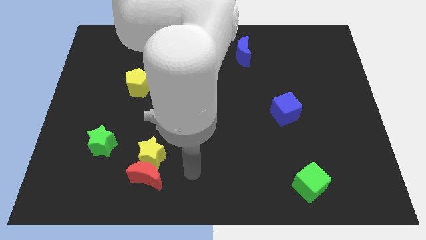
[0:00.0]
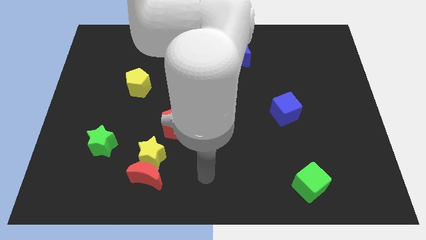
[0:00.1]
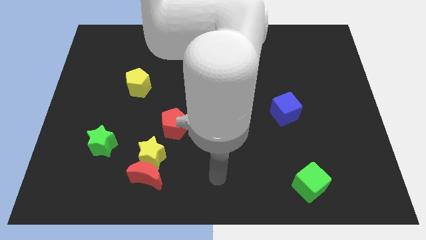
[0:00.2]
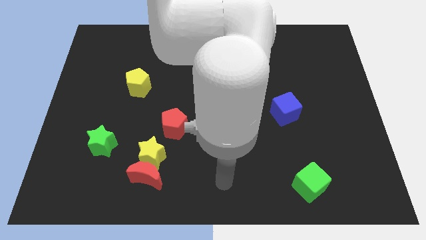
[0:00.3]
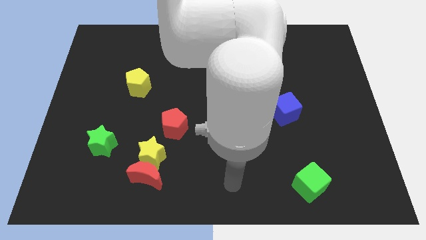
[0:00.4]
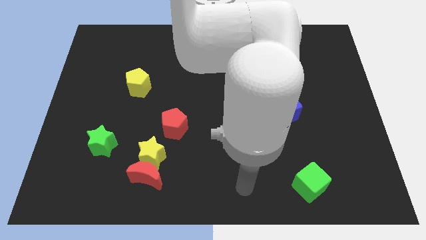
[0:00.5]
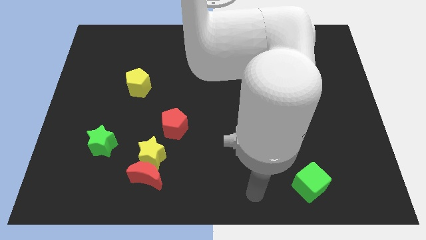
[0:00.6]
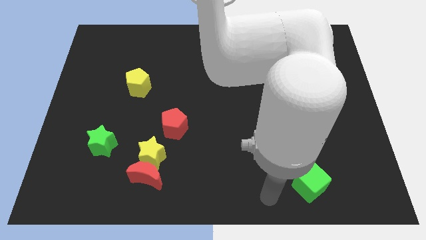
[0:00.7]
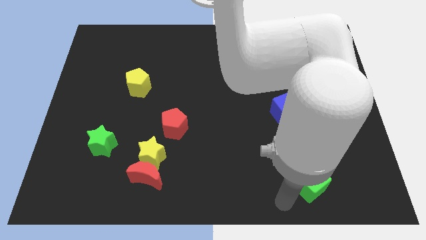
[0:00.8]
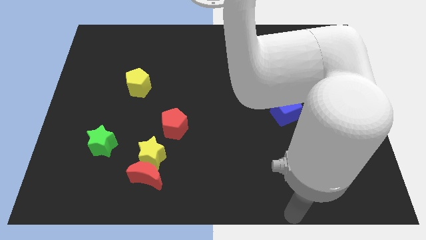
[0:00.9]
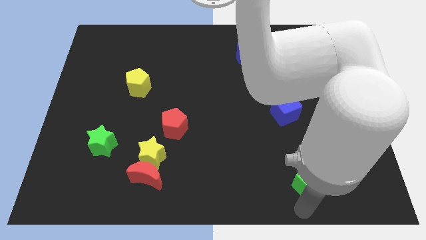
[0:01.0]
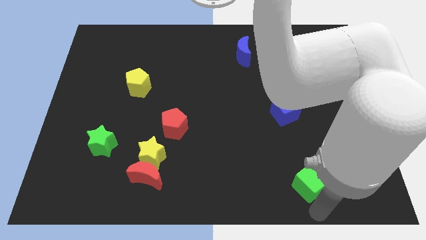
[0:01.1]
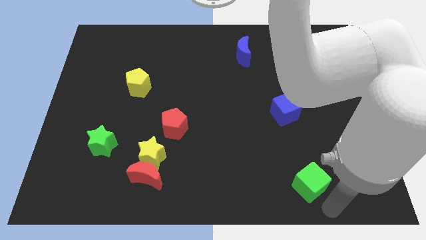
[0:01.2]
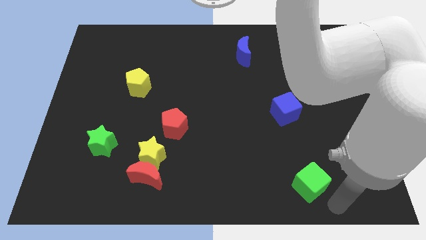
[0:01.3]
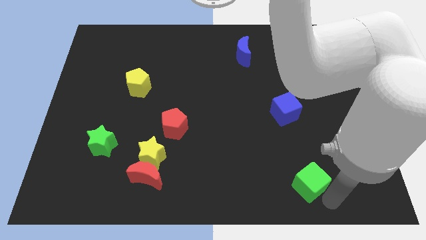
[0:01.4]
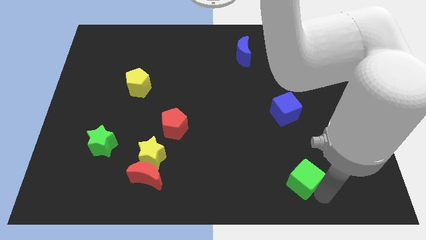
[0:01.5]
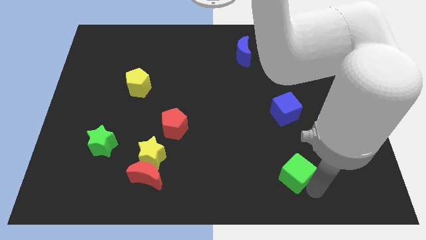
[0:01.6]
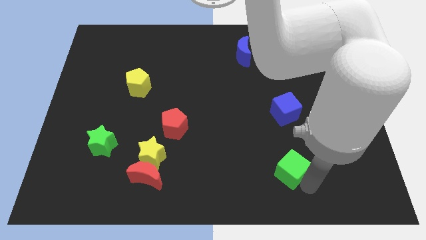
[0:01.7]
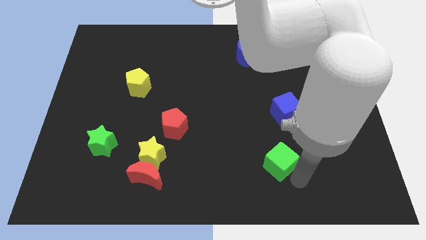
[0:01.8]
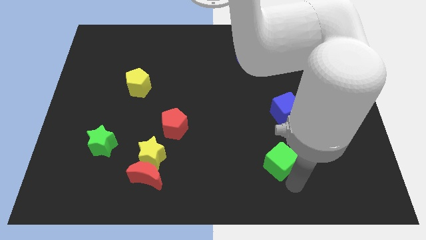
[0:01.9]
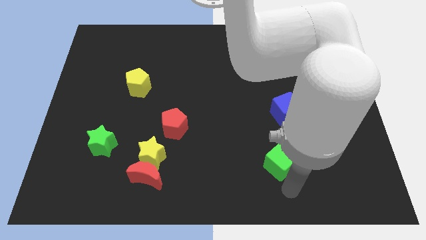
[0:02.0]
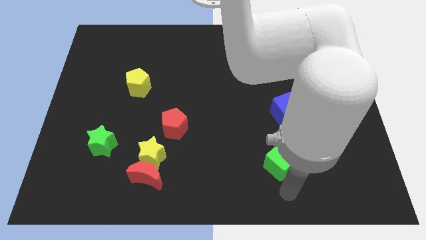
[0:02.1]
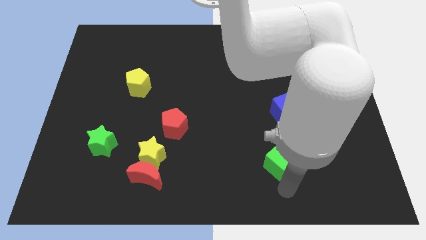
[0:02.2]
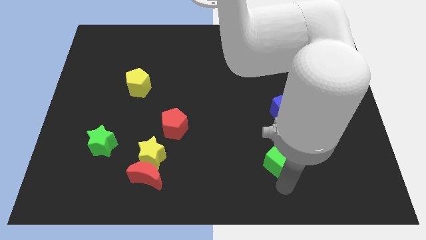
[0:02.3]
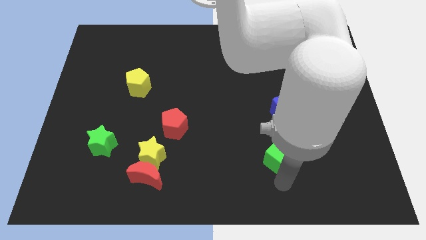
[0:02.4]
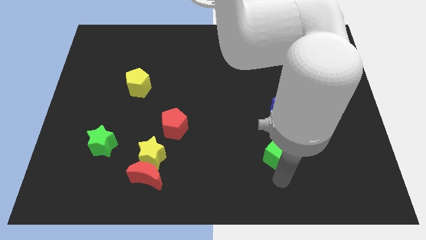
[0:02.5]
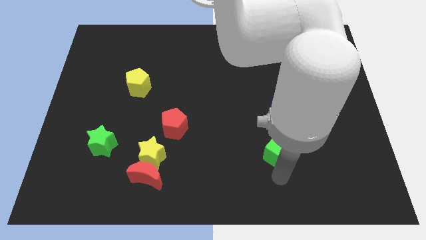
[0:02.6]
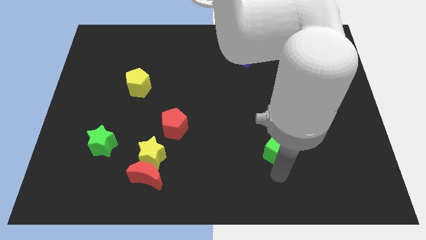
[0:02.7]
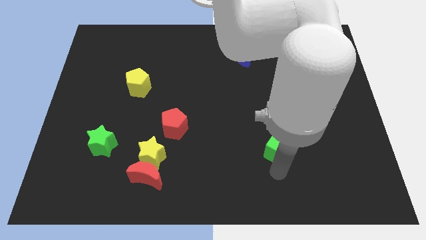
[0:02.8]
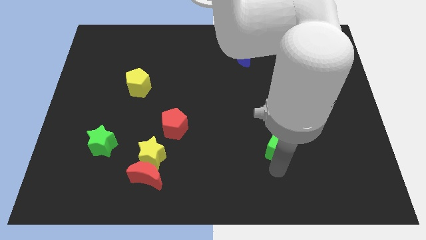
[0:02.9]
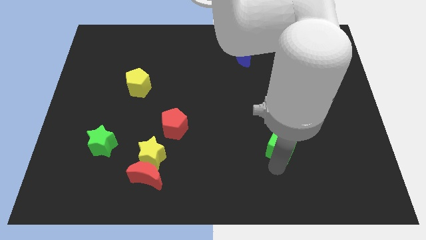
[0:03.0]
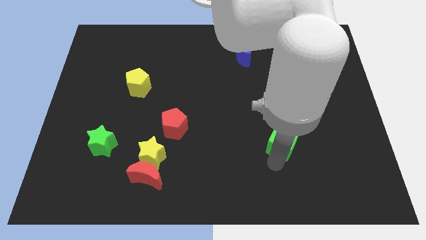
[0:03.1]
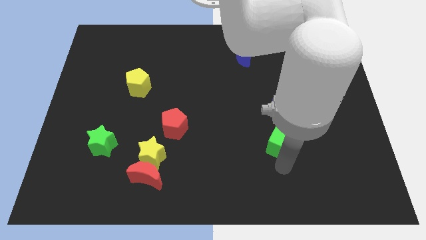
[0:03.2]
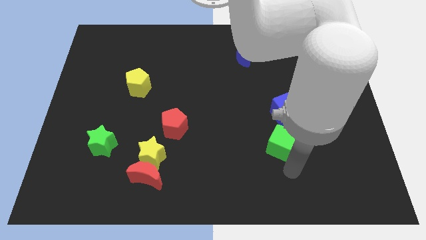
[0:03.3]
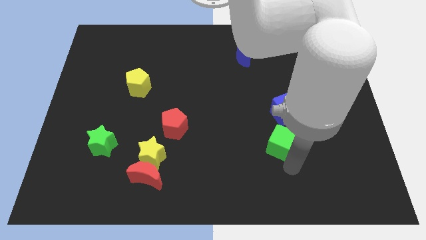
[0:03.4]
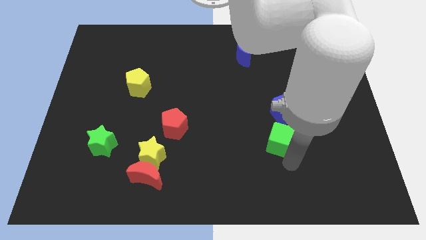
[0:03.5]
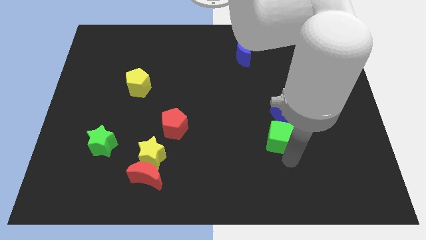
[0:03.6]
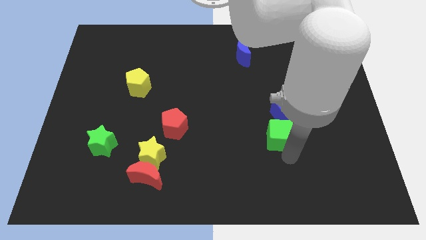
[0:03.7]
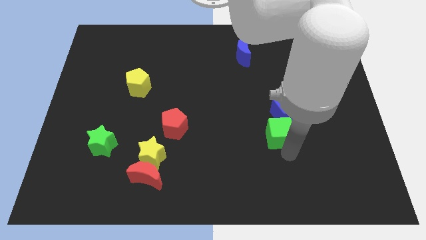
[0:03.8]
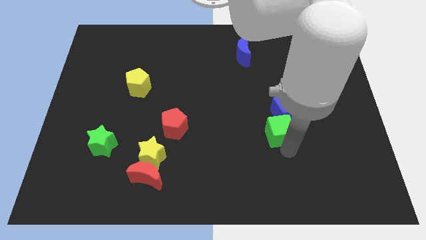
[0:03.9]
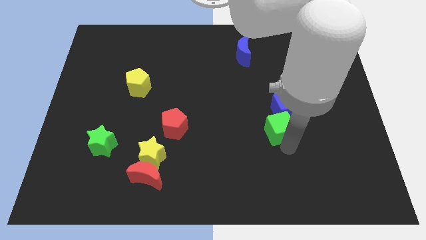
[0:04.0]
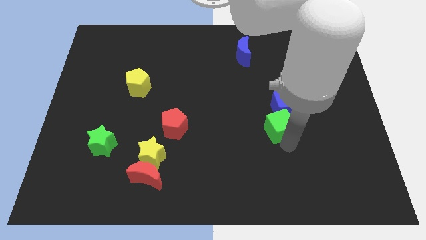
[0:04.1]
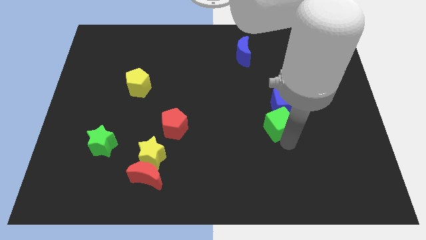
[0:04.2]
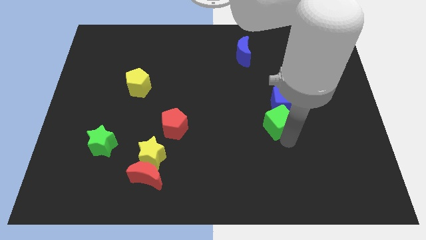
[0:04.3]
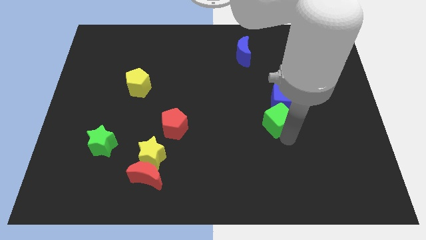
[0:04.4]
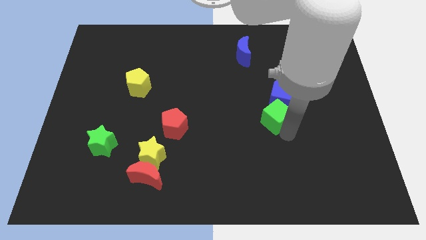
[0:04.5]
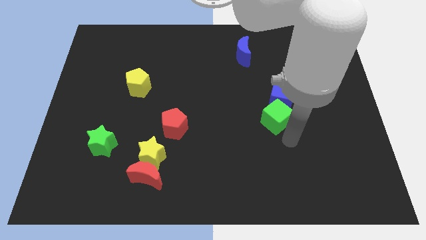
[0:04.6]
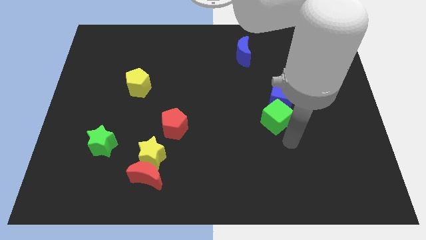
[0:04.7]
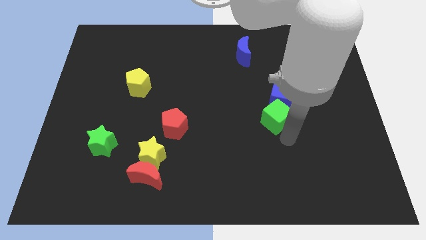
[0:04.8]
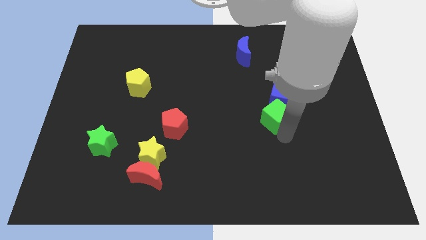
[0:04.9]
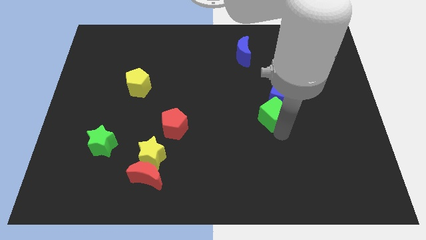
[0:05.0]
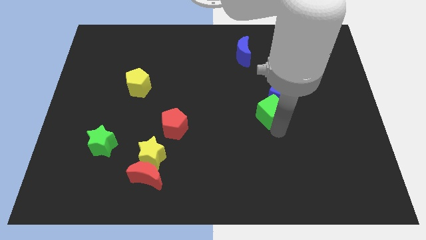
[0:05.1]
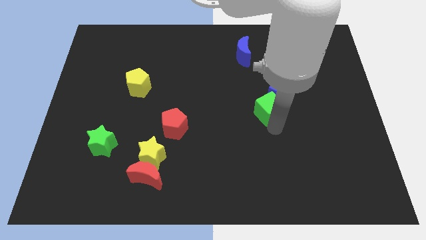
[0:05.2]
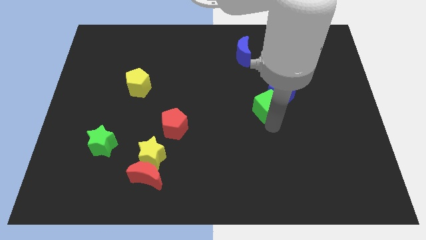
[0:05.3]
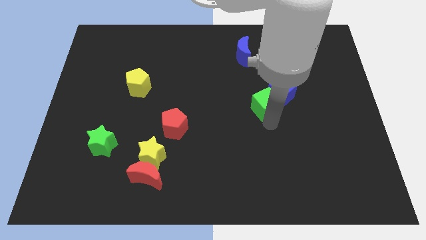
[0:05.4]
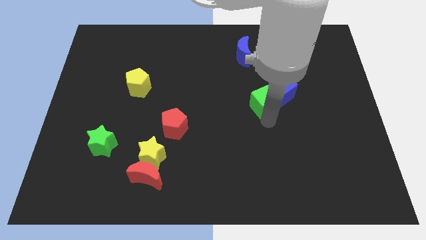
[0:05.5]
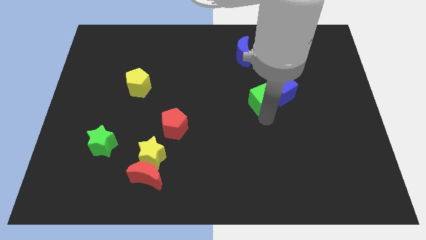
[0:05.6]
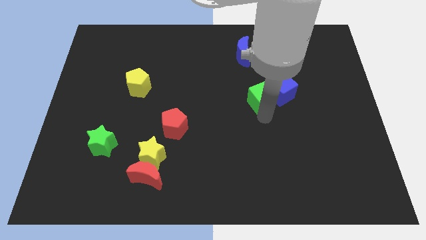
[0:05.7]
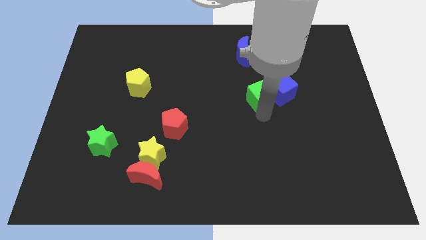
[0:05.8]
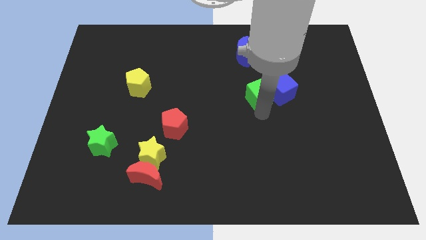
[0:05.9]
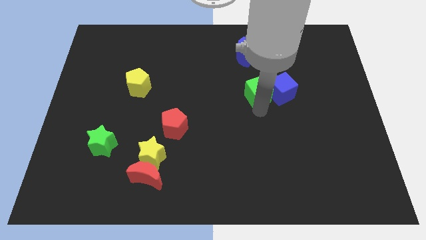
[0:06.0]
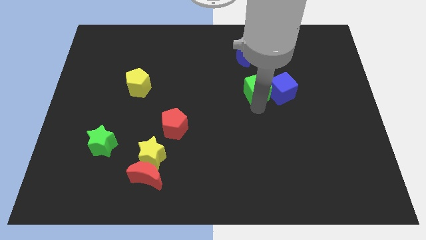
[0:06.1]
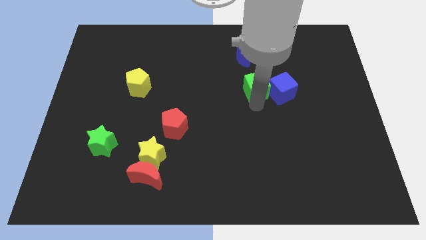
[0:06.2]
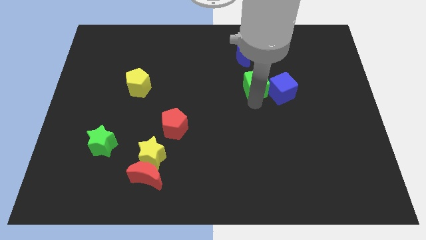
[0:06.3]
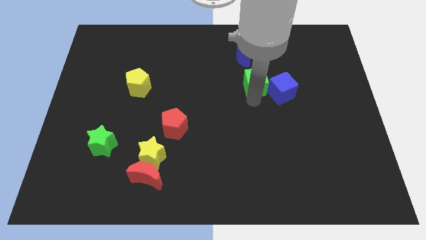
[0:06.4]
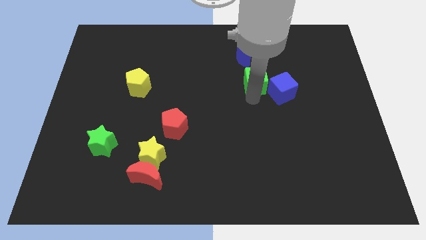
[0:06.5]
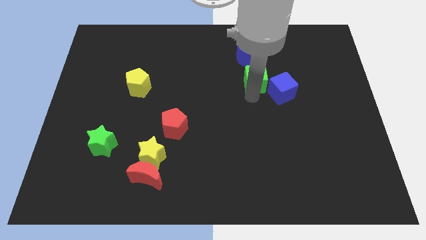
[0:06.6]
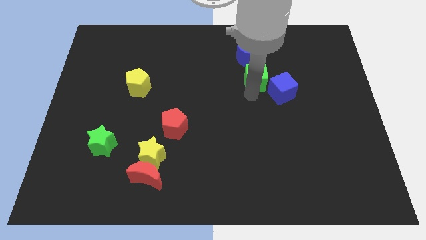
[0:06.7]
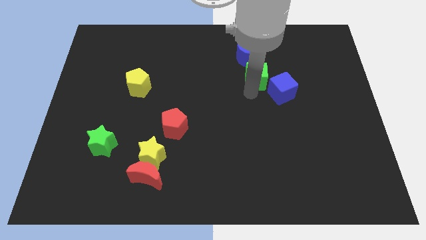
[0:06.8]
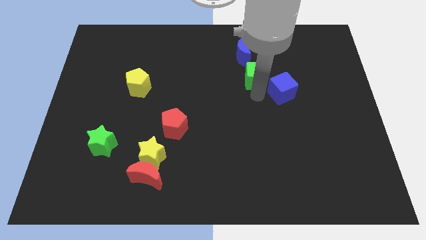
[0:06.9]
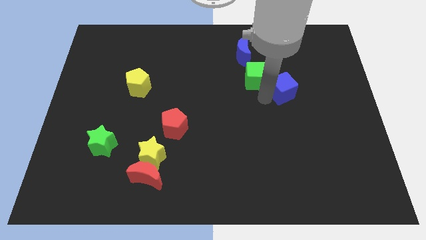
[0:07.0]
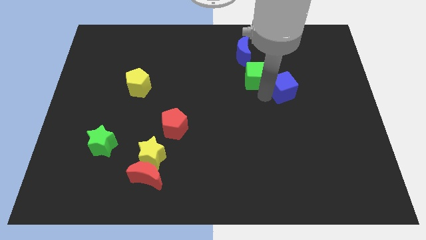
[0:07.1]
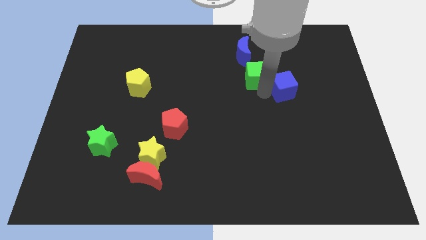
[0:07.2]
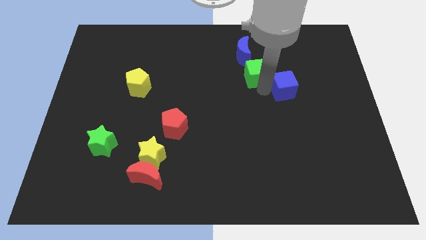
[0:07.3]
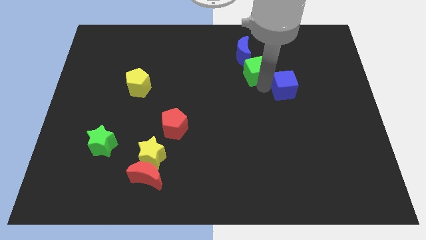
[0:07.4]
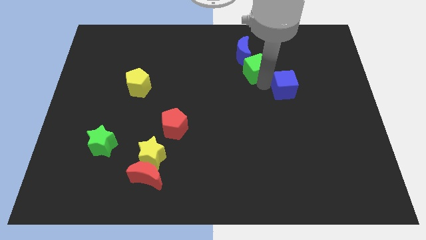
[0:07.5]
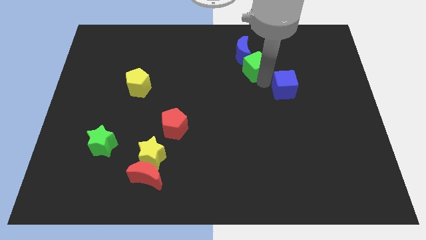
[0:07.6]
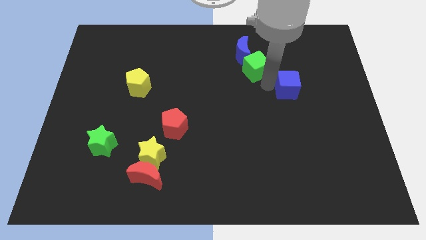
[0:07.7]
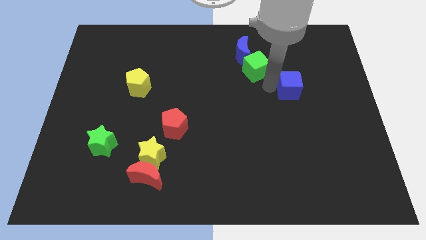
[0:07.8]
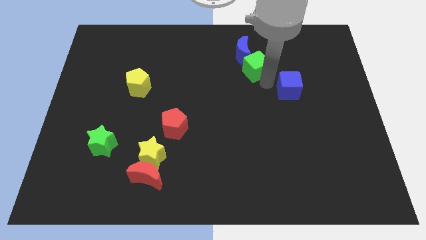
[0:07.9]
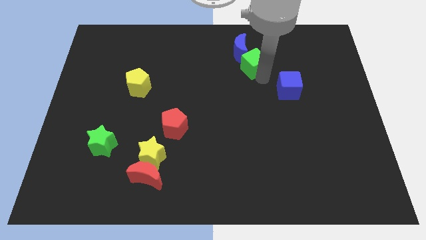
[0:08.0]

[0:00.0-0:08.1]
slide the green cube towards the blue moon
